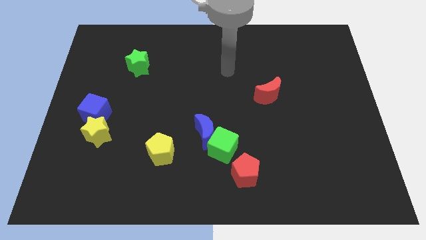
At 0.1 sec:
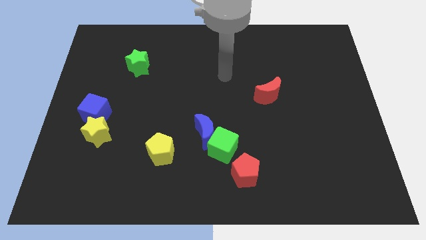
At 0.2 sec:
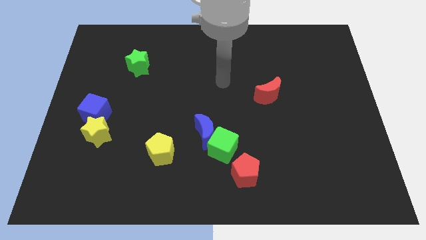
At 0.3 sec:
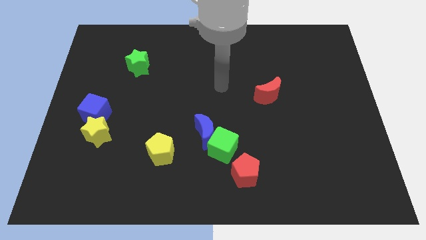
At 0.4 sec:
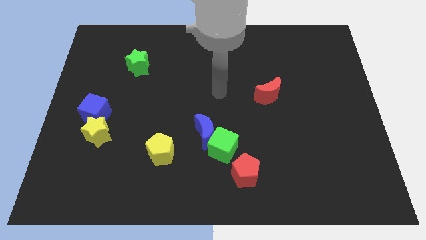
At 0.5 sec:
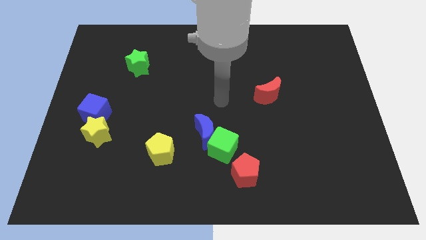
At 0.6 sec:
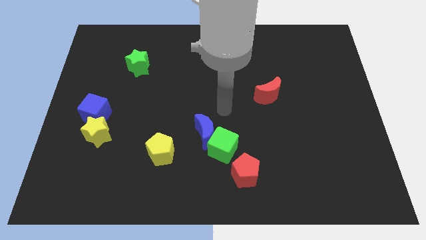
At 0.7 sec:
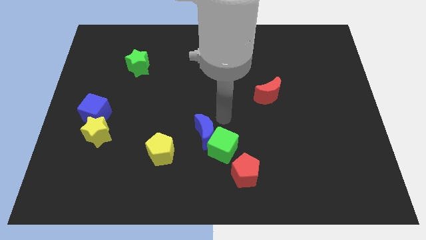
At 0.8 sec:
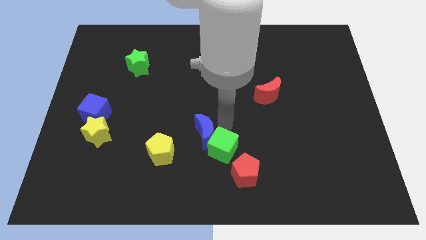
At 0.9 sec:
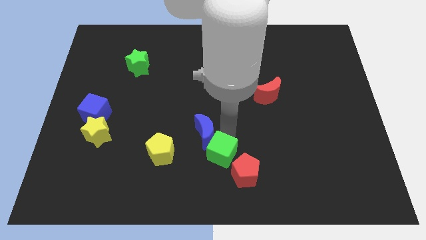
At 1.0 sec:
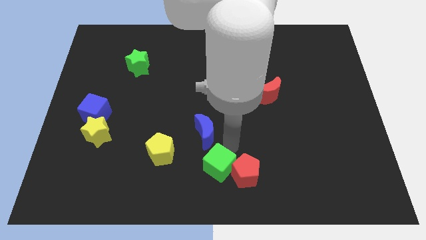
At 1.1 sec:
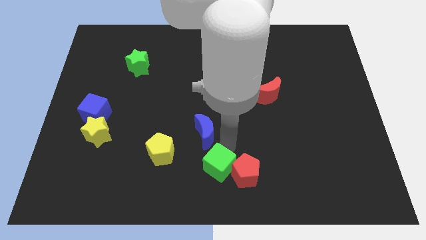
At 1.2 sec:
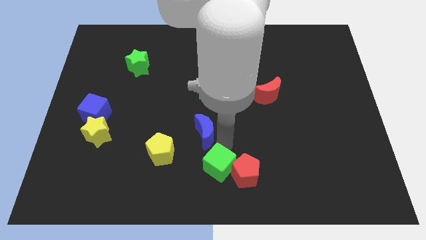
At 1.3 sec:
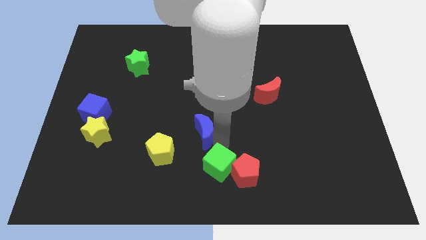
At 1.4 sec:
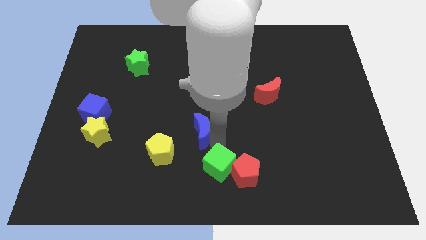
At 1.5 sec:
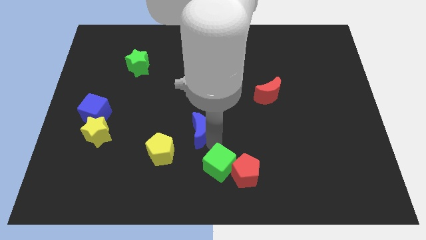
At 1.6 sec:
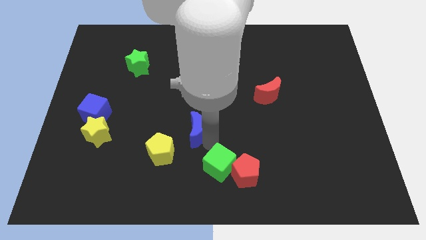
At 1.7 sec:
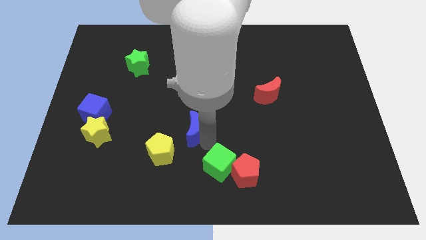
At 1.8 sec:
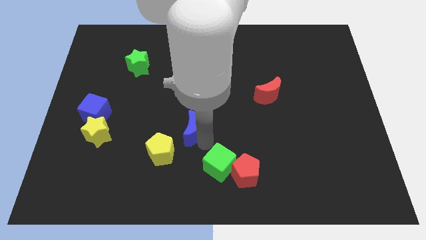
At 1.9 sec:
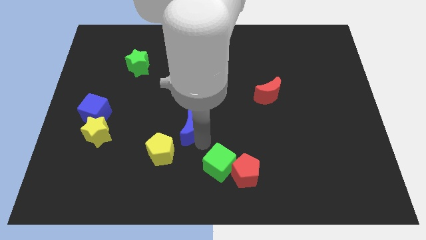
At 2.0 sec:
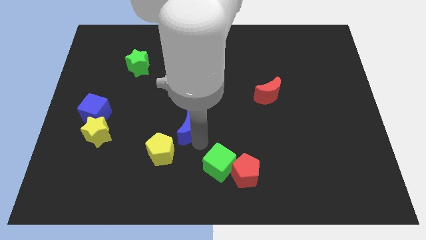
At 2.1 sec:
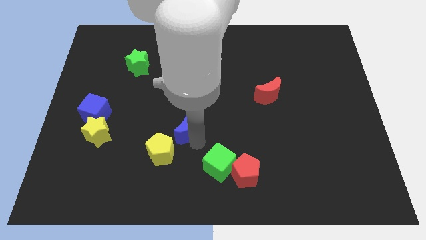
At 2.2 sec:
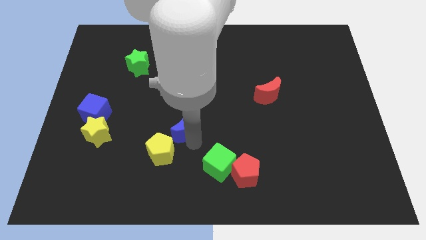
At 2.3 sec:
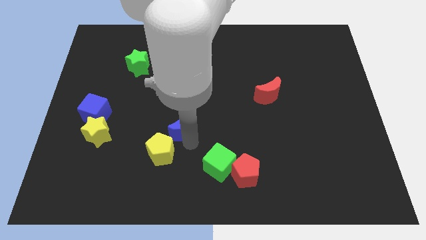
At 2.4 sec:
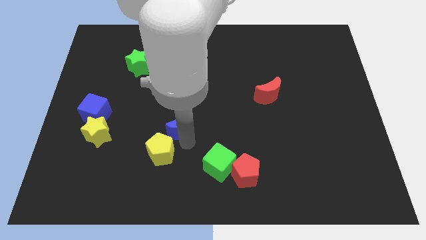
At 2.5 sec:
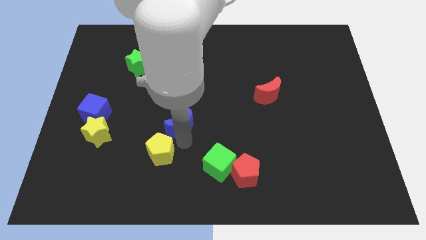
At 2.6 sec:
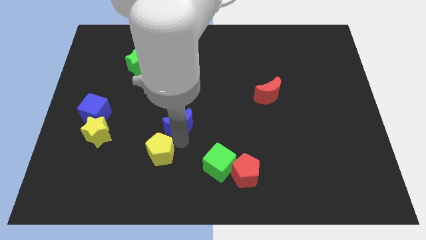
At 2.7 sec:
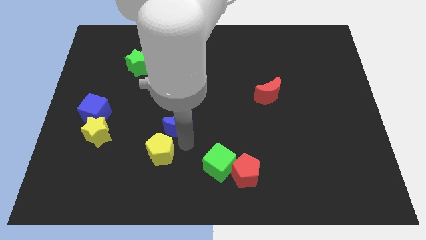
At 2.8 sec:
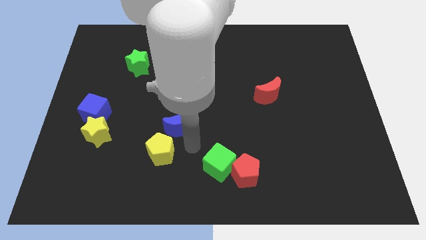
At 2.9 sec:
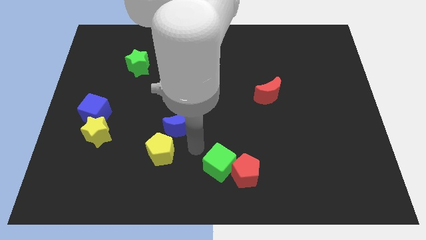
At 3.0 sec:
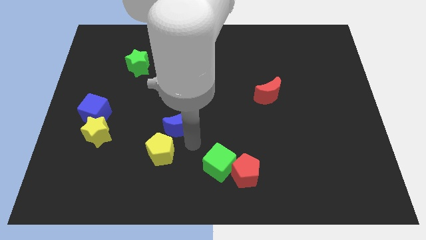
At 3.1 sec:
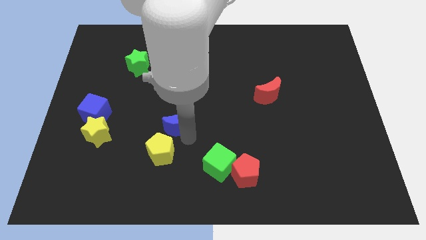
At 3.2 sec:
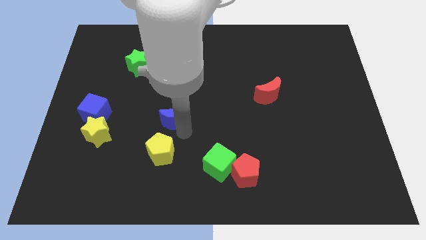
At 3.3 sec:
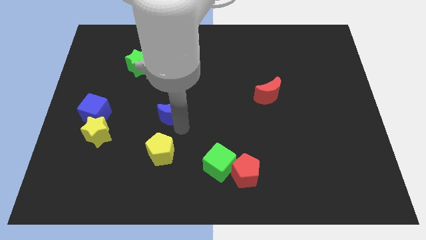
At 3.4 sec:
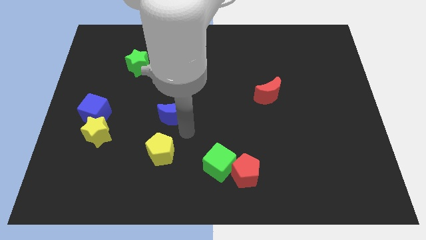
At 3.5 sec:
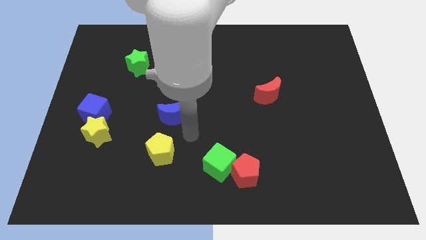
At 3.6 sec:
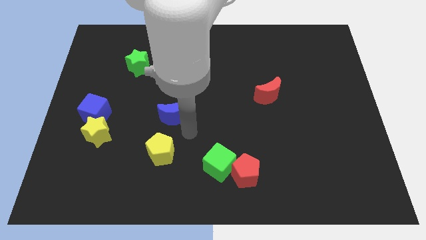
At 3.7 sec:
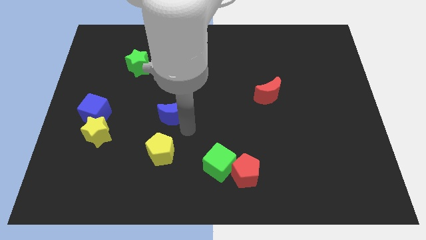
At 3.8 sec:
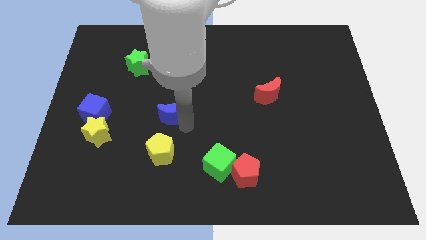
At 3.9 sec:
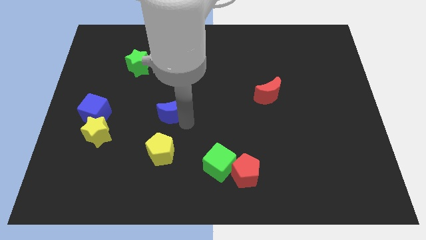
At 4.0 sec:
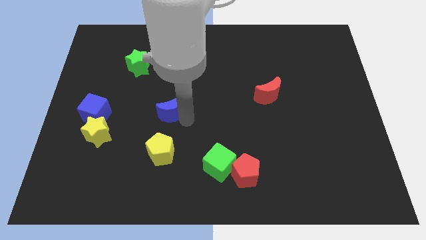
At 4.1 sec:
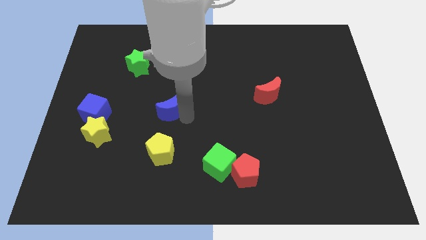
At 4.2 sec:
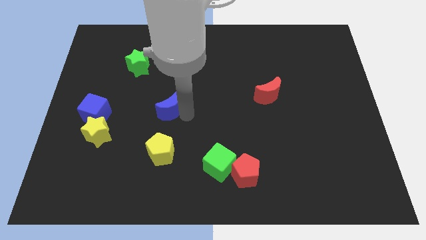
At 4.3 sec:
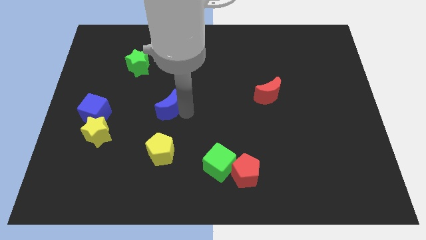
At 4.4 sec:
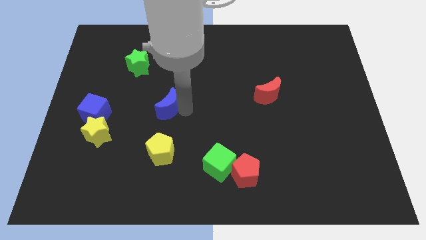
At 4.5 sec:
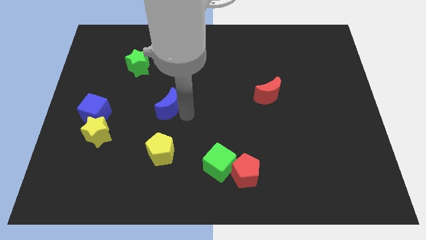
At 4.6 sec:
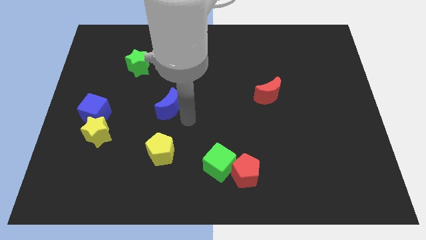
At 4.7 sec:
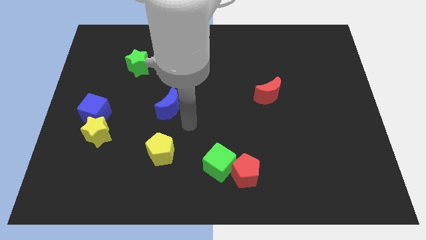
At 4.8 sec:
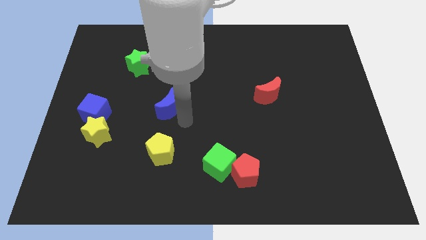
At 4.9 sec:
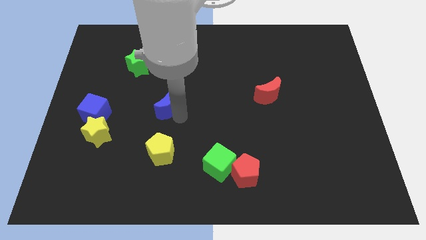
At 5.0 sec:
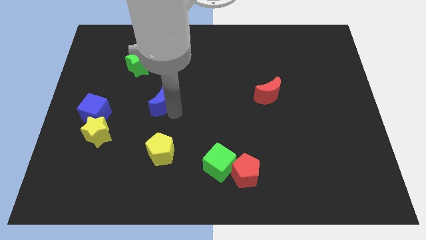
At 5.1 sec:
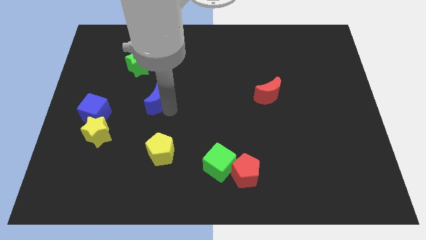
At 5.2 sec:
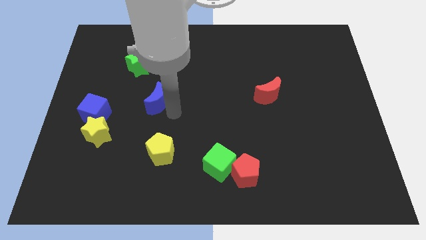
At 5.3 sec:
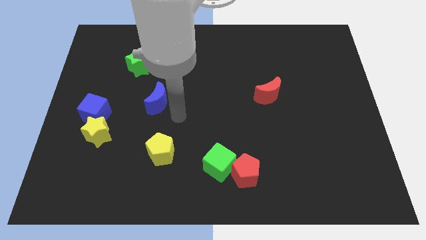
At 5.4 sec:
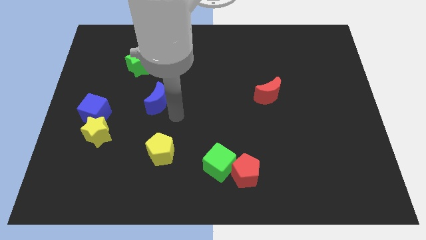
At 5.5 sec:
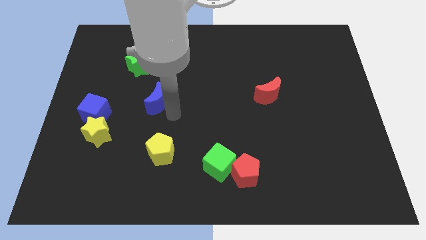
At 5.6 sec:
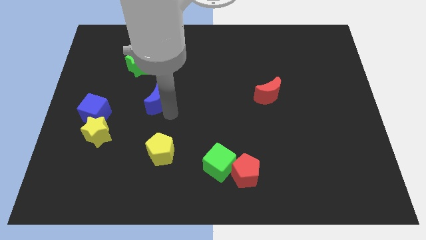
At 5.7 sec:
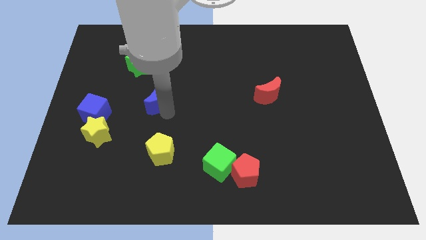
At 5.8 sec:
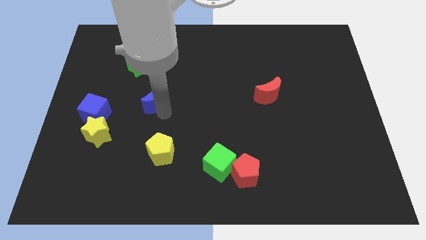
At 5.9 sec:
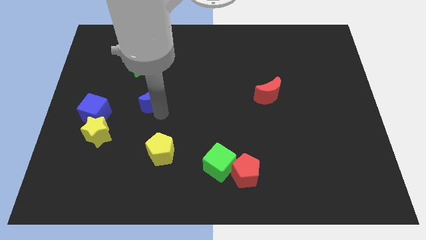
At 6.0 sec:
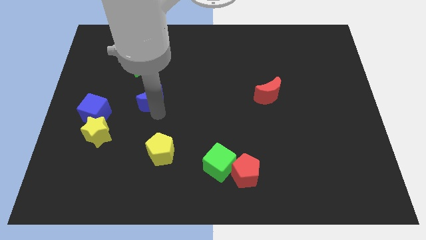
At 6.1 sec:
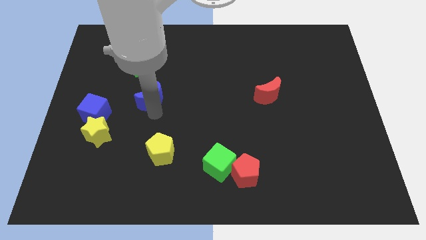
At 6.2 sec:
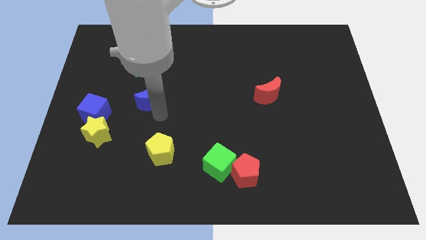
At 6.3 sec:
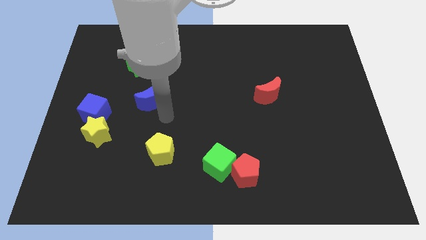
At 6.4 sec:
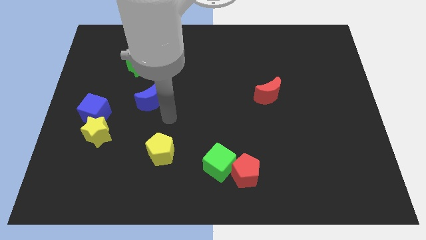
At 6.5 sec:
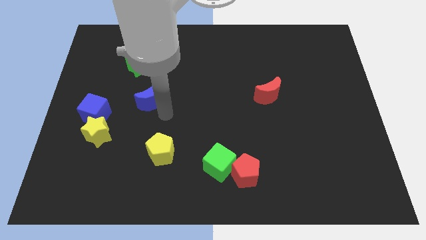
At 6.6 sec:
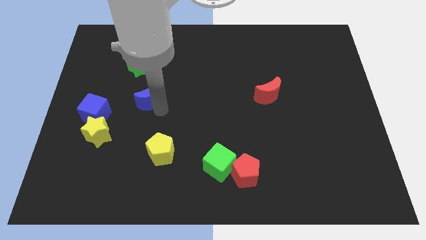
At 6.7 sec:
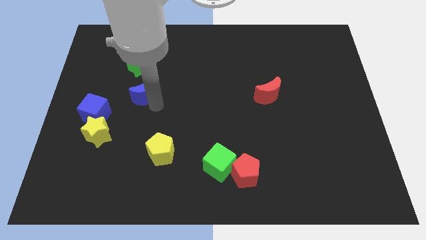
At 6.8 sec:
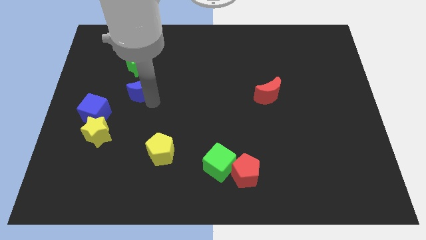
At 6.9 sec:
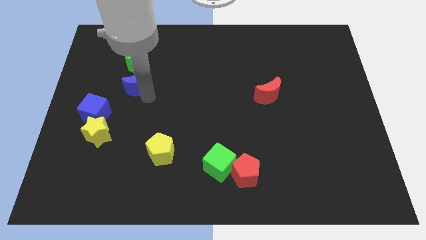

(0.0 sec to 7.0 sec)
slide the blue moon upwards and left

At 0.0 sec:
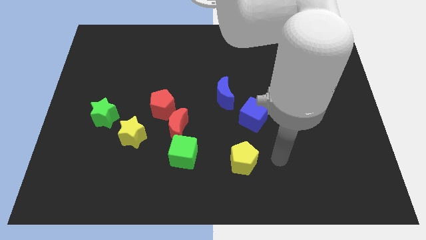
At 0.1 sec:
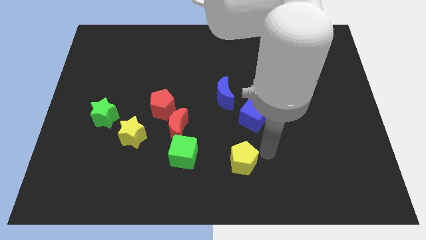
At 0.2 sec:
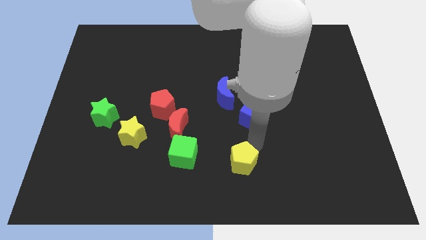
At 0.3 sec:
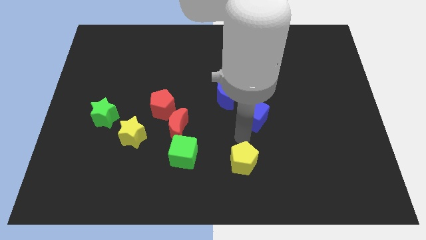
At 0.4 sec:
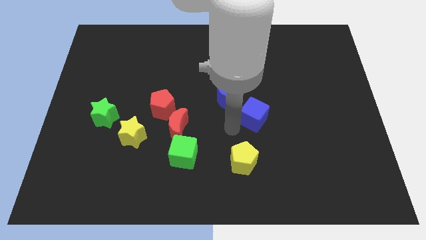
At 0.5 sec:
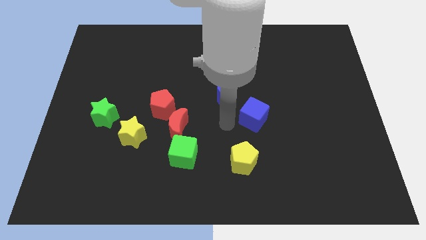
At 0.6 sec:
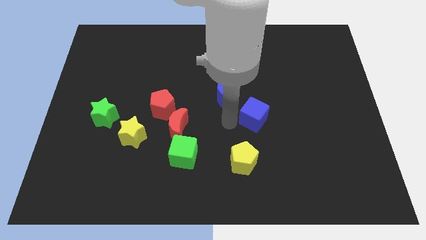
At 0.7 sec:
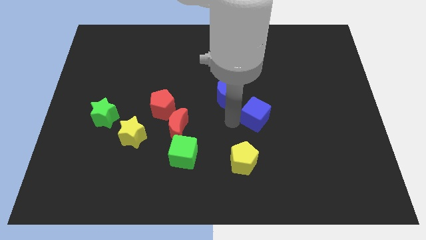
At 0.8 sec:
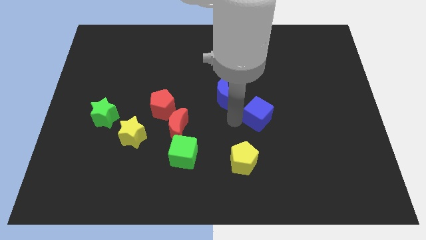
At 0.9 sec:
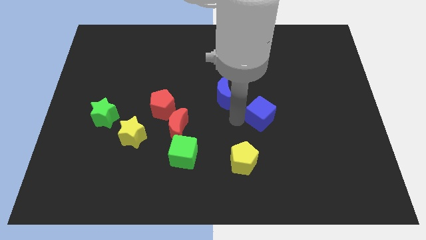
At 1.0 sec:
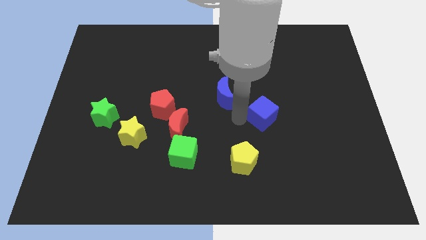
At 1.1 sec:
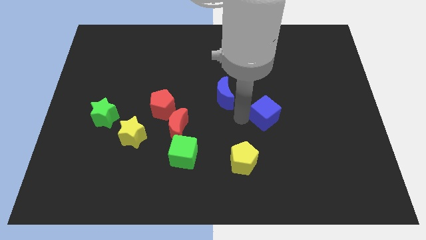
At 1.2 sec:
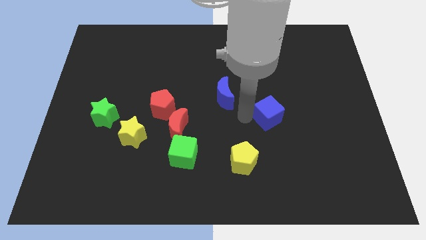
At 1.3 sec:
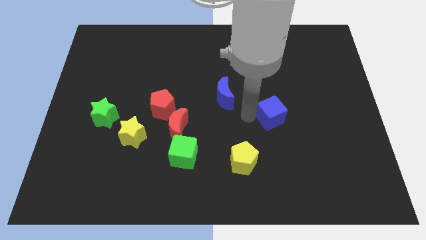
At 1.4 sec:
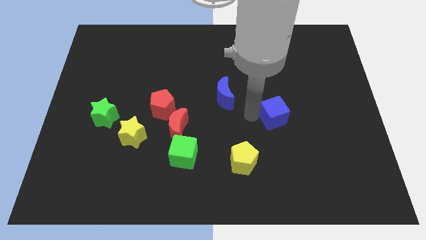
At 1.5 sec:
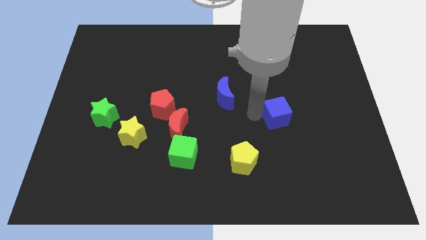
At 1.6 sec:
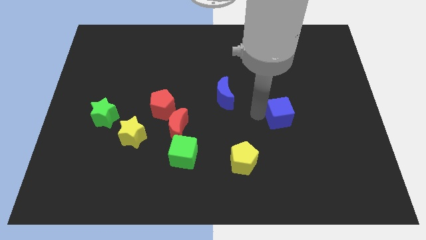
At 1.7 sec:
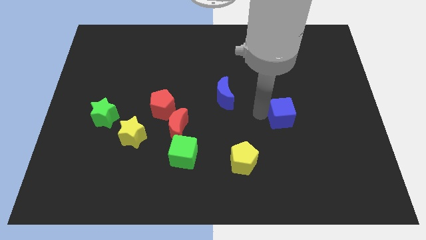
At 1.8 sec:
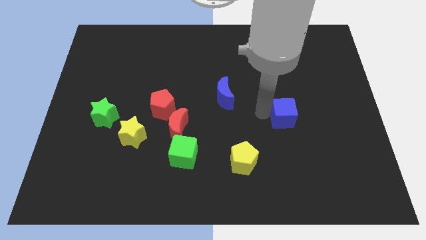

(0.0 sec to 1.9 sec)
push the blue cube to the right a bit
